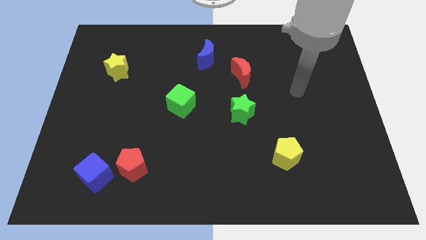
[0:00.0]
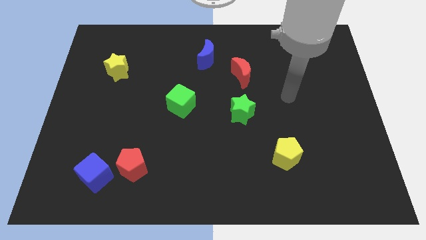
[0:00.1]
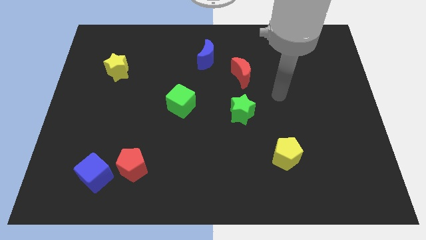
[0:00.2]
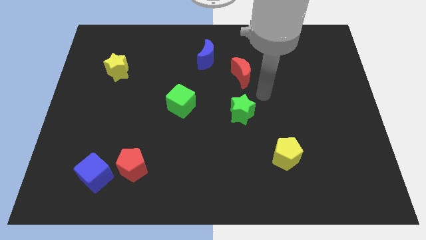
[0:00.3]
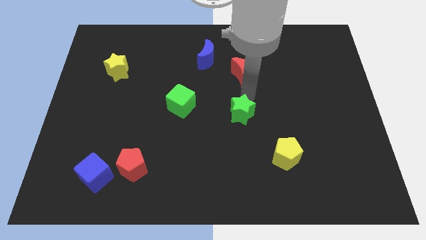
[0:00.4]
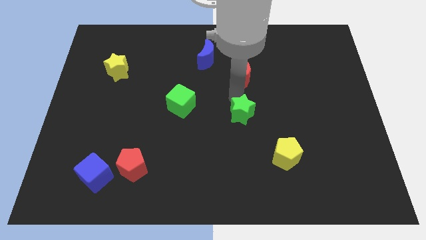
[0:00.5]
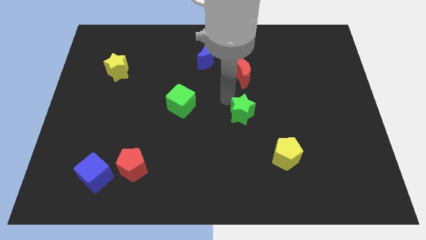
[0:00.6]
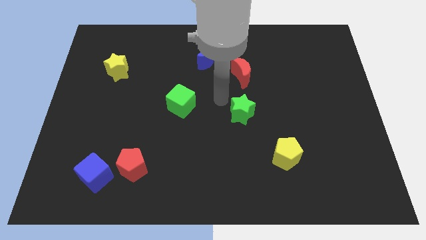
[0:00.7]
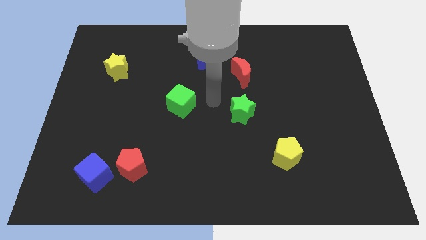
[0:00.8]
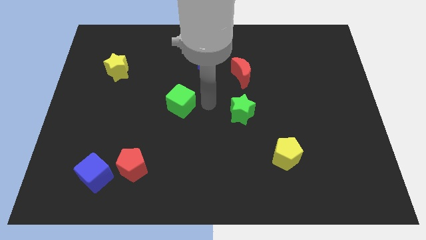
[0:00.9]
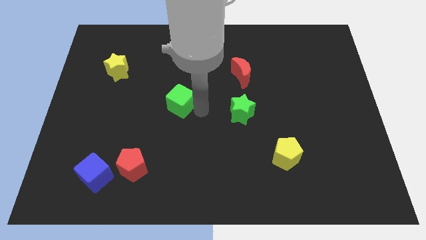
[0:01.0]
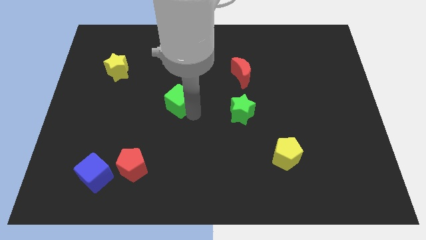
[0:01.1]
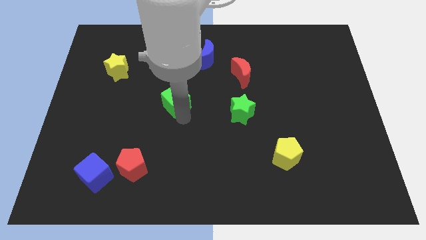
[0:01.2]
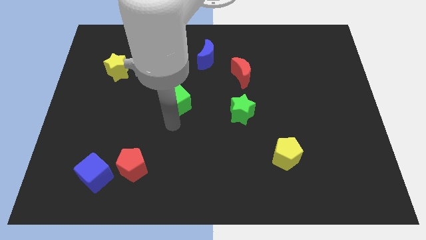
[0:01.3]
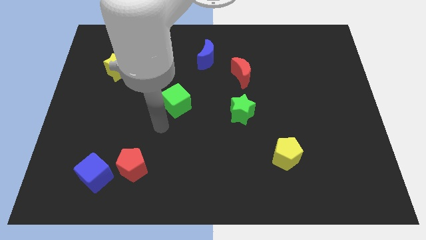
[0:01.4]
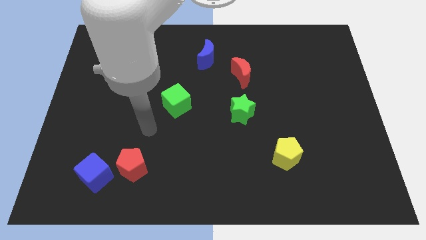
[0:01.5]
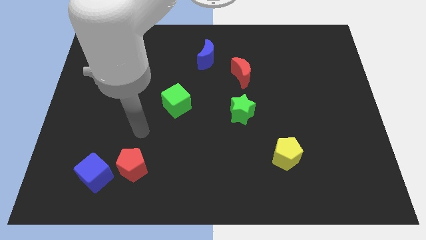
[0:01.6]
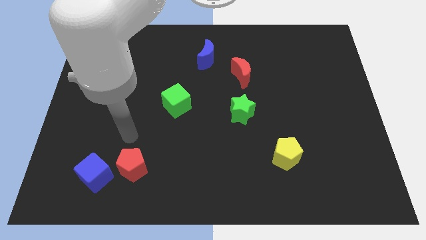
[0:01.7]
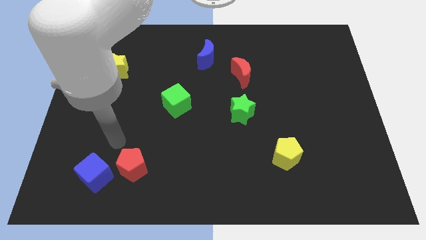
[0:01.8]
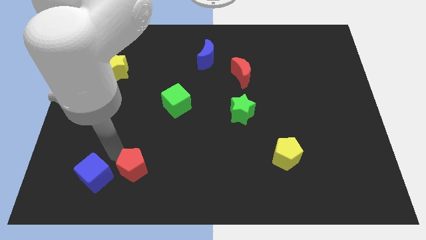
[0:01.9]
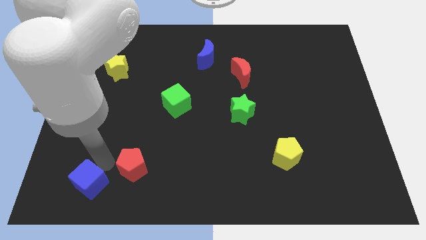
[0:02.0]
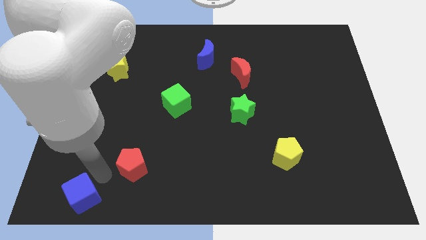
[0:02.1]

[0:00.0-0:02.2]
move the red pentagon away from the blue cube

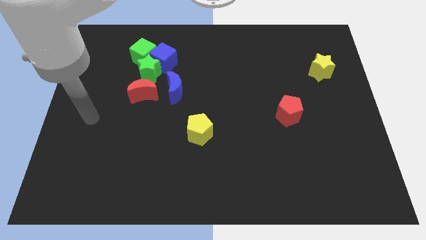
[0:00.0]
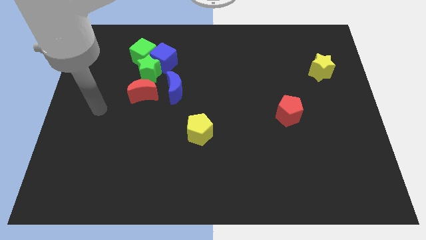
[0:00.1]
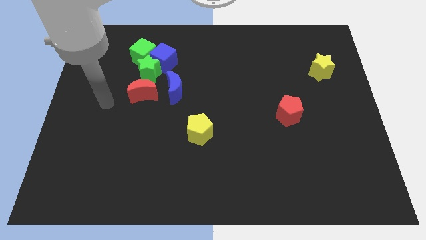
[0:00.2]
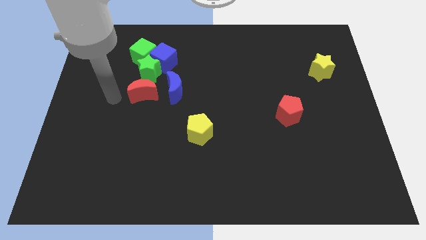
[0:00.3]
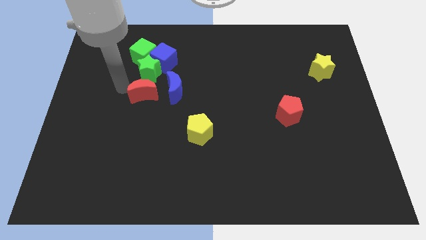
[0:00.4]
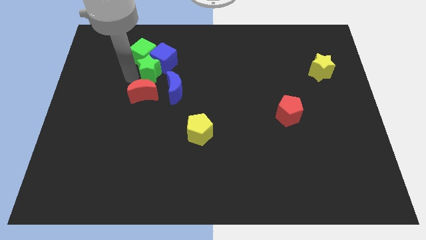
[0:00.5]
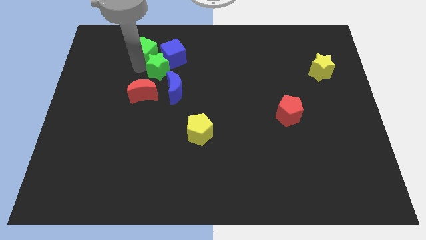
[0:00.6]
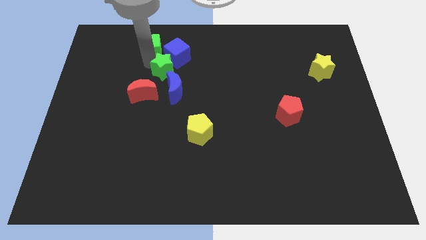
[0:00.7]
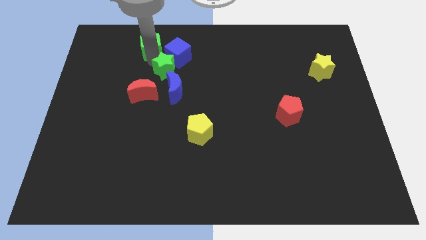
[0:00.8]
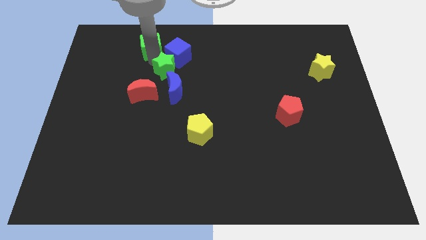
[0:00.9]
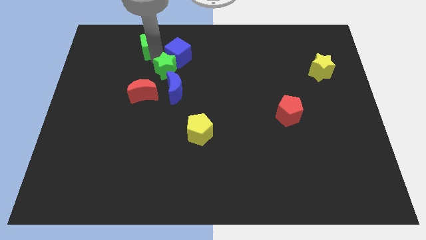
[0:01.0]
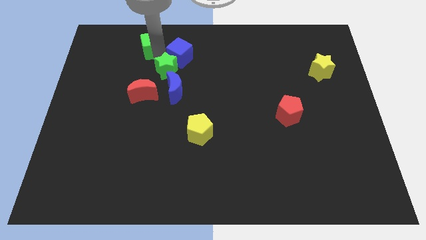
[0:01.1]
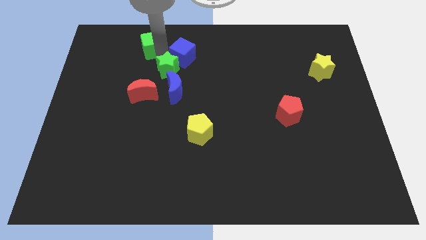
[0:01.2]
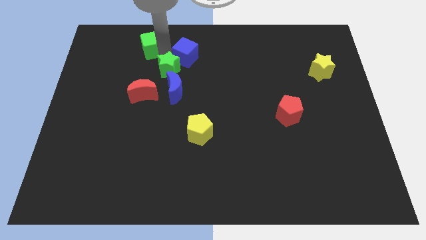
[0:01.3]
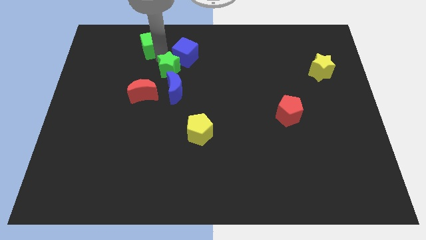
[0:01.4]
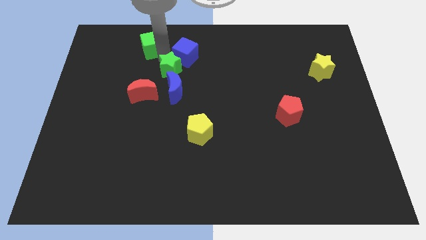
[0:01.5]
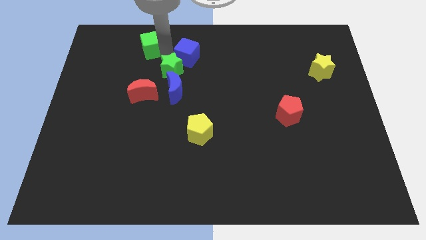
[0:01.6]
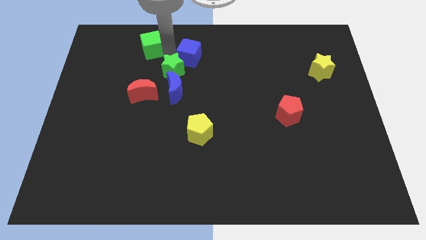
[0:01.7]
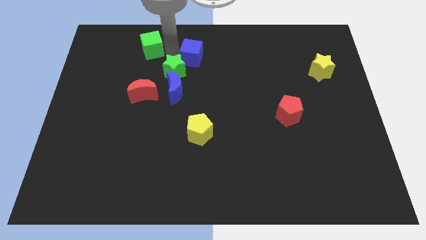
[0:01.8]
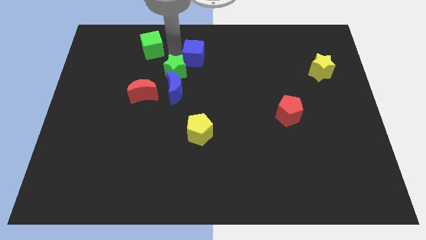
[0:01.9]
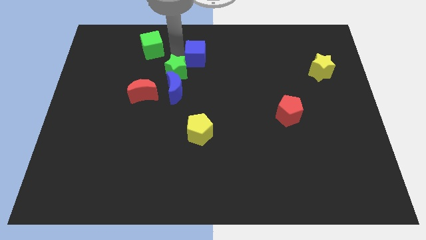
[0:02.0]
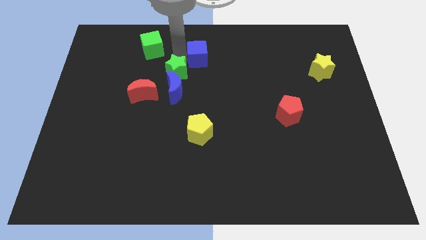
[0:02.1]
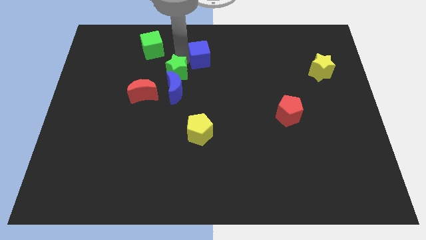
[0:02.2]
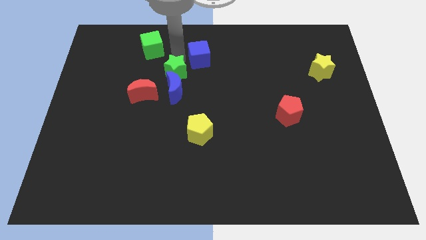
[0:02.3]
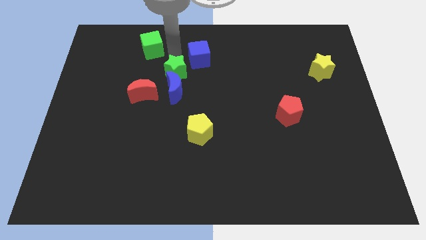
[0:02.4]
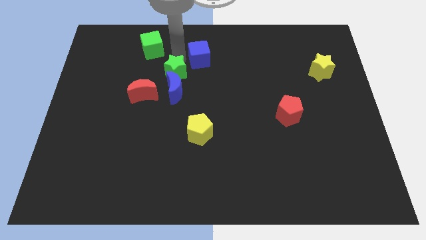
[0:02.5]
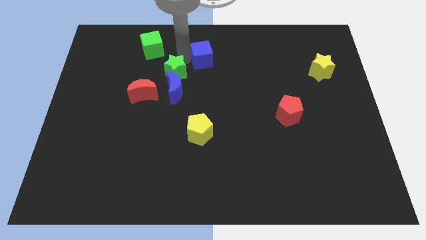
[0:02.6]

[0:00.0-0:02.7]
pull the blue cube apart from the green star and green cube

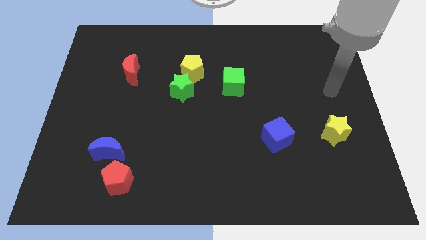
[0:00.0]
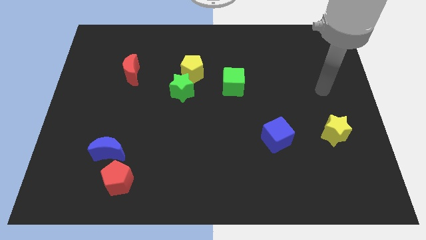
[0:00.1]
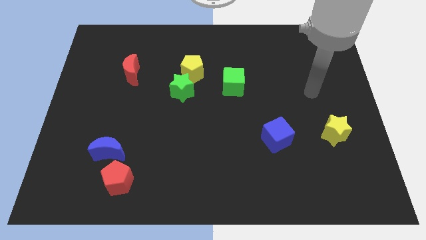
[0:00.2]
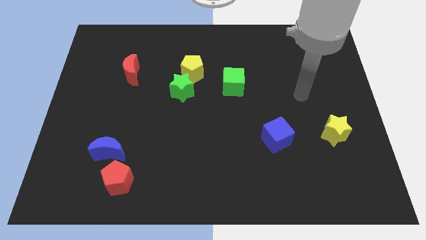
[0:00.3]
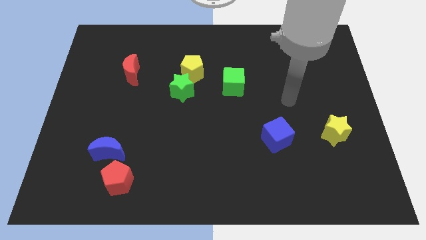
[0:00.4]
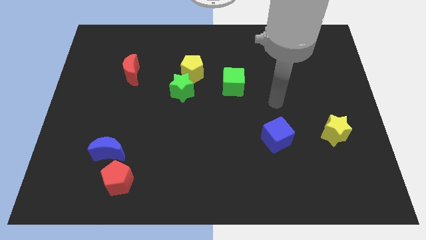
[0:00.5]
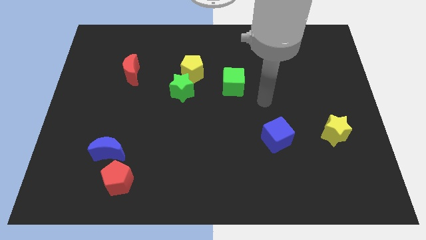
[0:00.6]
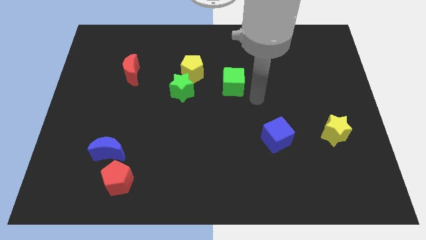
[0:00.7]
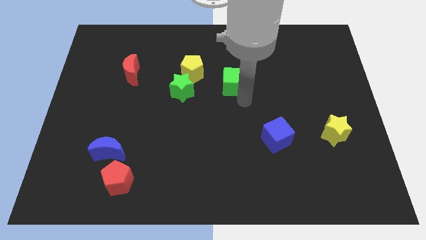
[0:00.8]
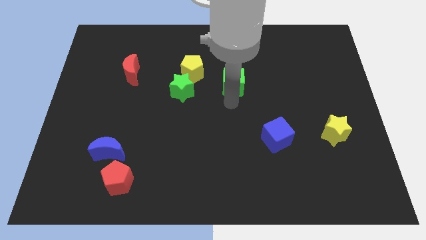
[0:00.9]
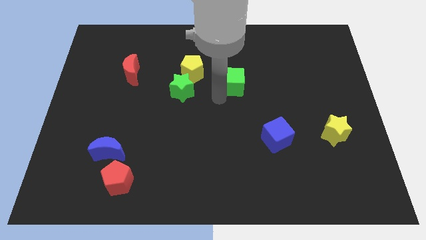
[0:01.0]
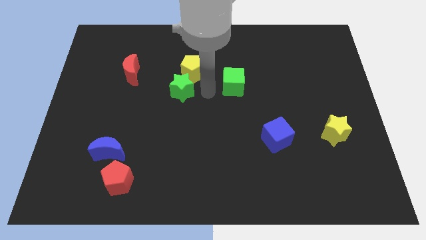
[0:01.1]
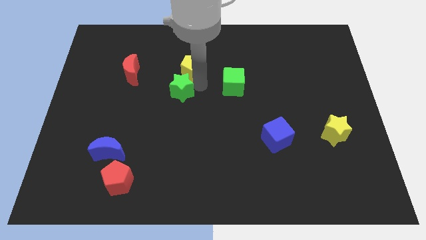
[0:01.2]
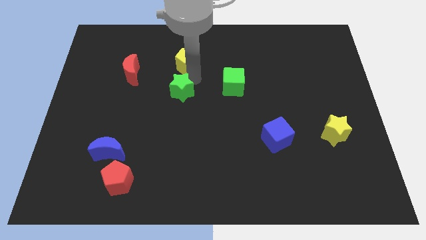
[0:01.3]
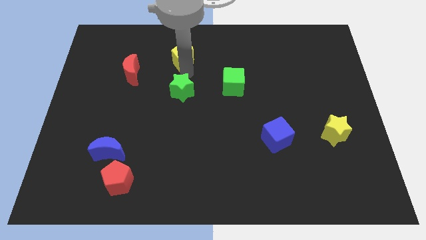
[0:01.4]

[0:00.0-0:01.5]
move the green star away from the yellow pentagon

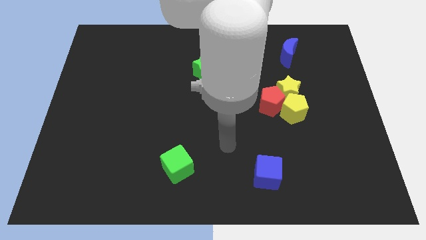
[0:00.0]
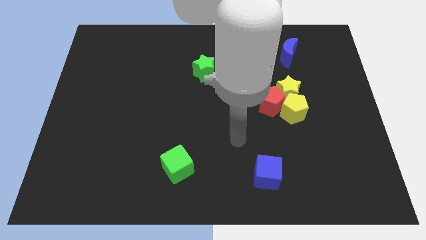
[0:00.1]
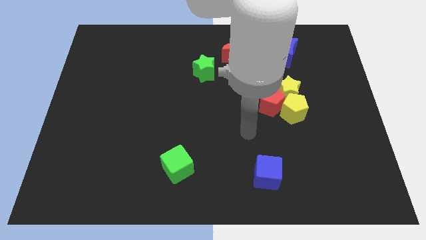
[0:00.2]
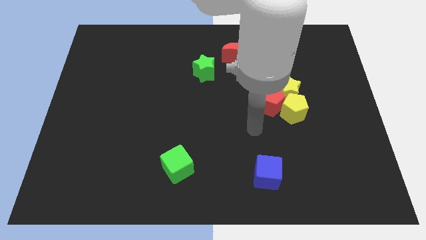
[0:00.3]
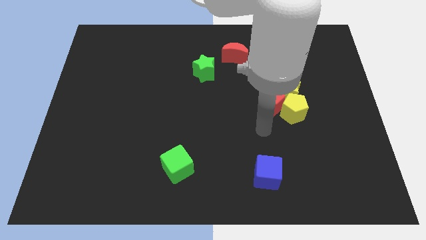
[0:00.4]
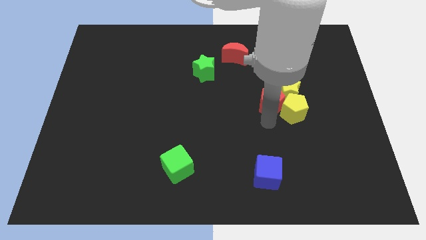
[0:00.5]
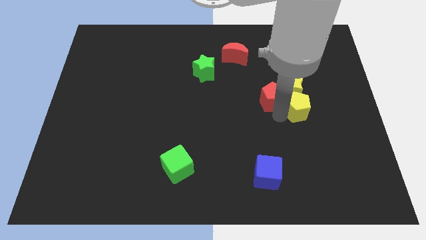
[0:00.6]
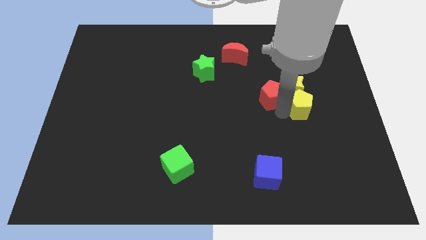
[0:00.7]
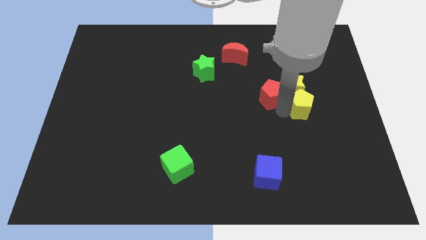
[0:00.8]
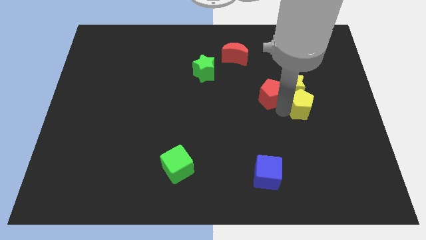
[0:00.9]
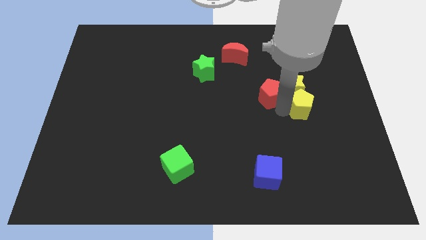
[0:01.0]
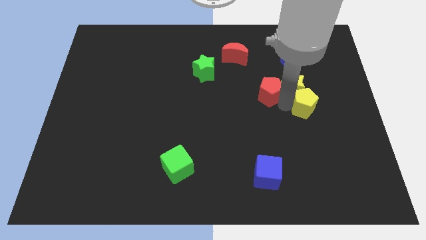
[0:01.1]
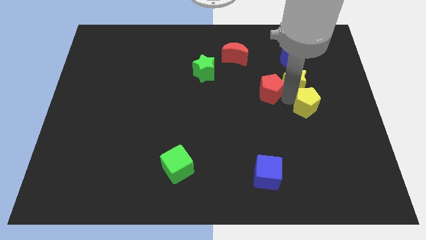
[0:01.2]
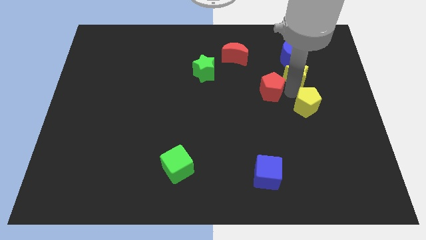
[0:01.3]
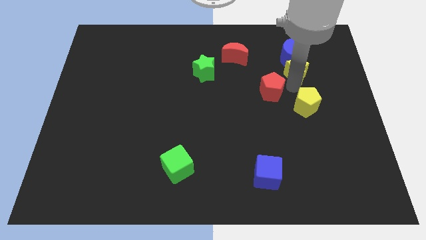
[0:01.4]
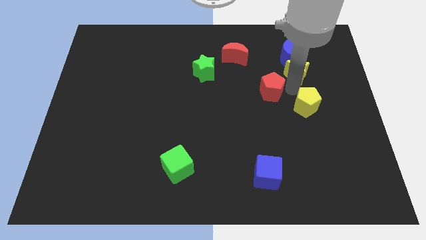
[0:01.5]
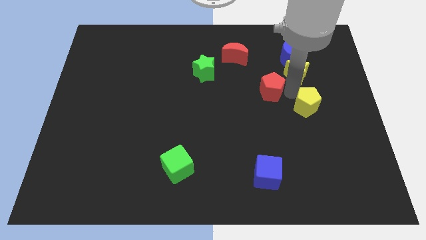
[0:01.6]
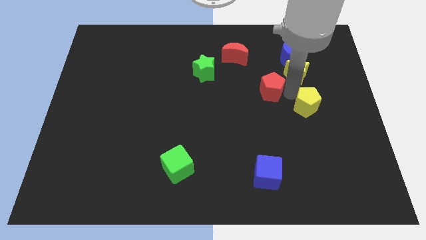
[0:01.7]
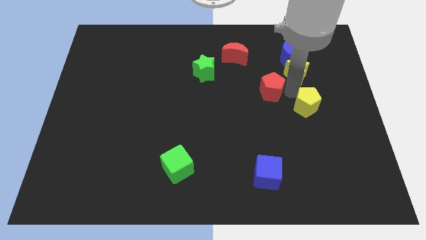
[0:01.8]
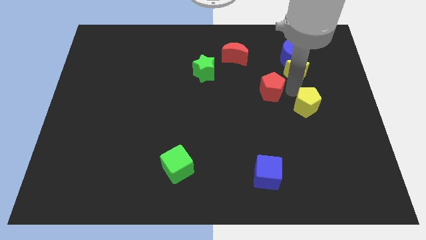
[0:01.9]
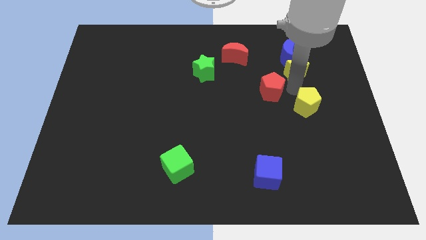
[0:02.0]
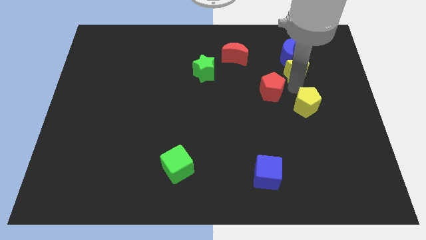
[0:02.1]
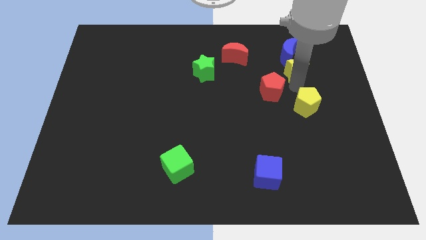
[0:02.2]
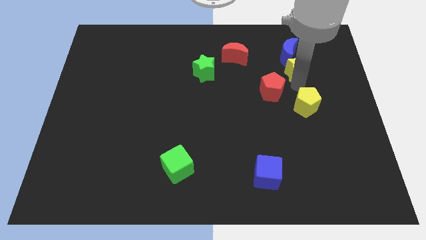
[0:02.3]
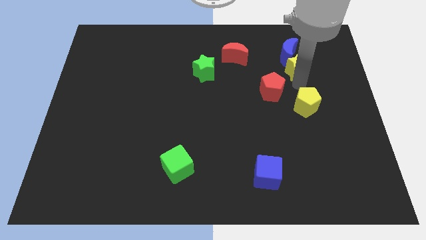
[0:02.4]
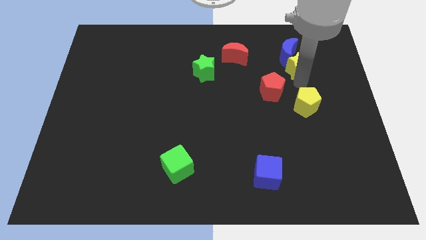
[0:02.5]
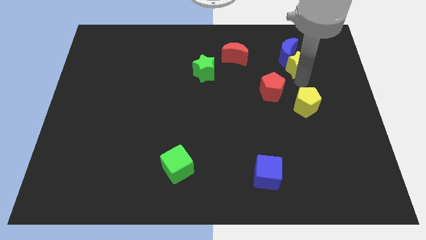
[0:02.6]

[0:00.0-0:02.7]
move the yellow star away from the yellow pentagon and red pentagon

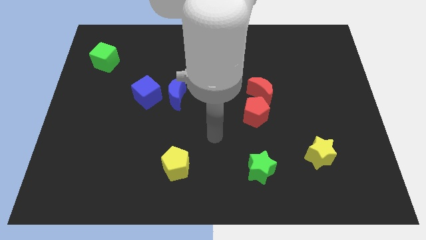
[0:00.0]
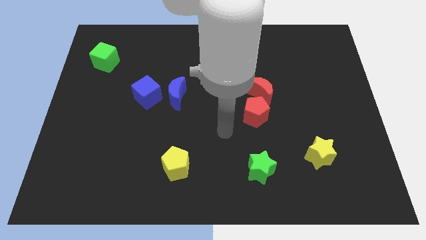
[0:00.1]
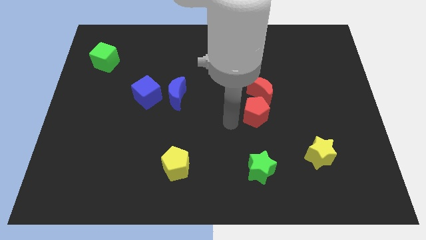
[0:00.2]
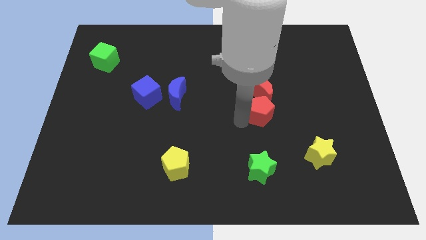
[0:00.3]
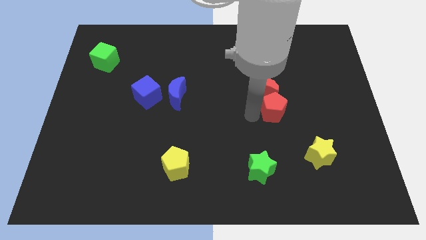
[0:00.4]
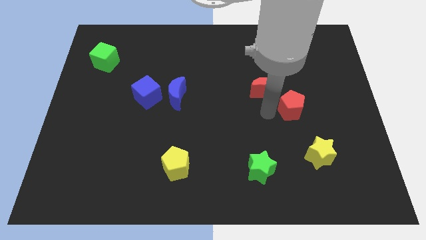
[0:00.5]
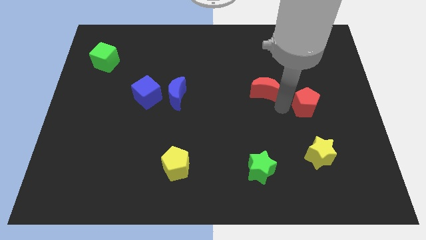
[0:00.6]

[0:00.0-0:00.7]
move the red moon away from the red pentagon
